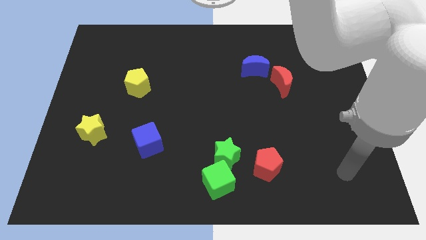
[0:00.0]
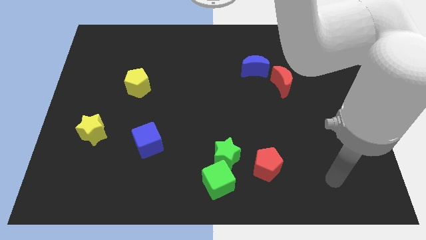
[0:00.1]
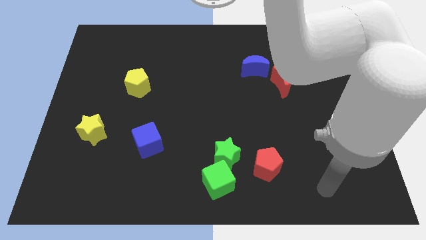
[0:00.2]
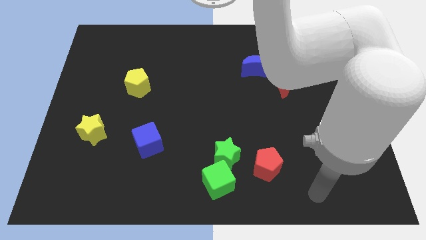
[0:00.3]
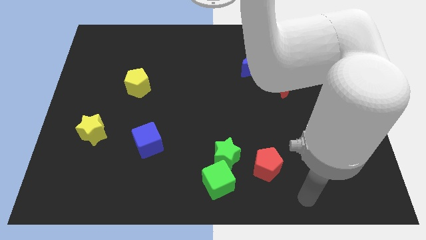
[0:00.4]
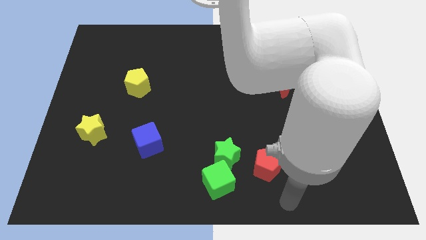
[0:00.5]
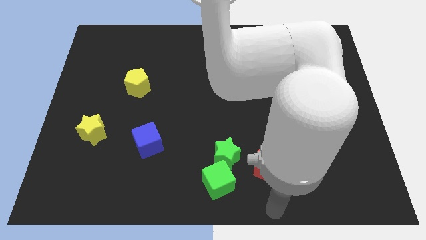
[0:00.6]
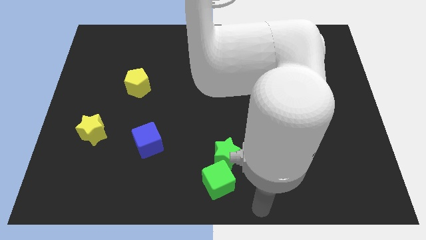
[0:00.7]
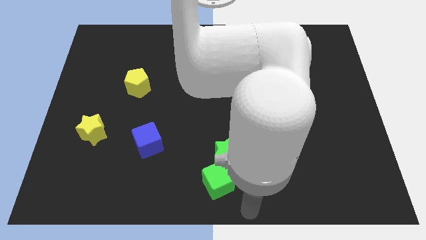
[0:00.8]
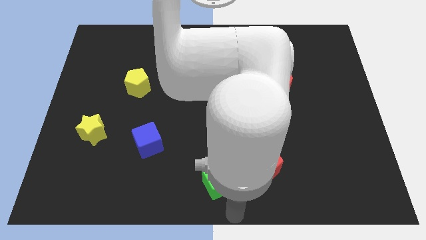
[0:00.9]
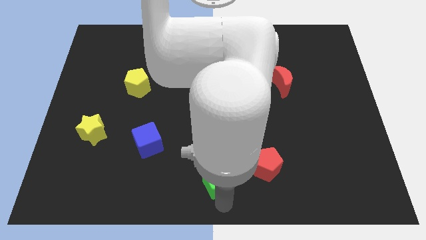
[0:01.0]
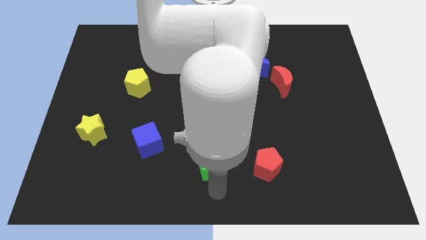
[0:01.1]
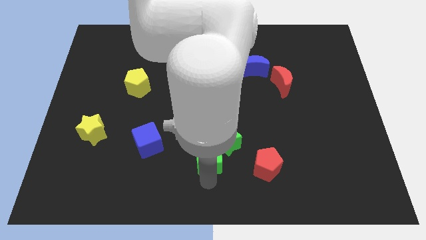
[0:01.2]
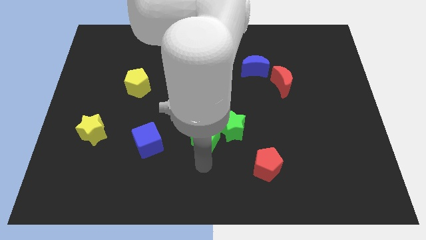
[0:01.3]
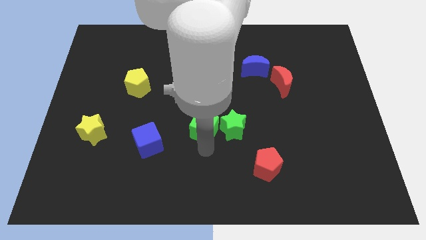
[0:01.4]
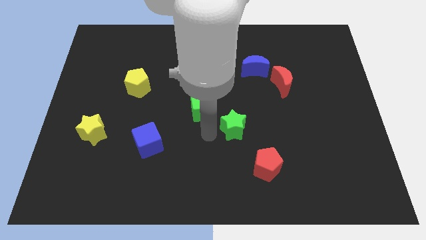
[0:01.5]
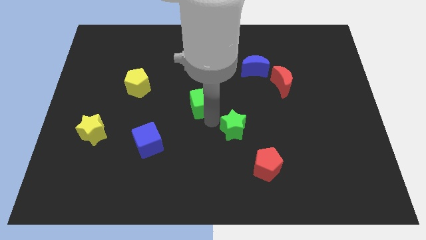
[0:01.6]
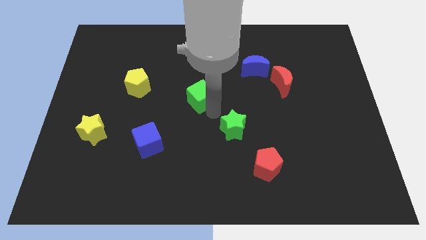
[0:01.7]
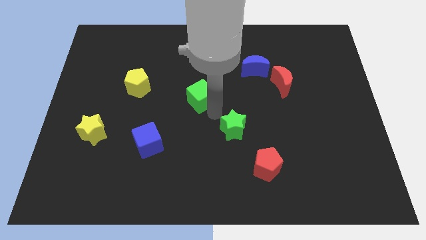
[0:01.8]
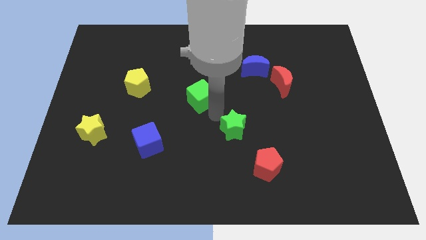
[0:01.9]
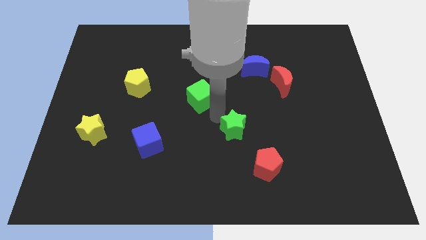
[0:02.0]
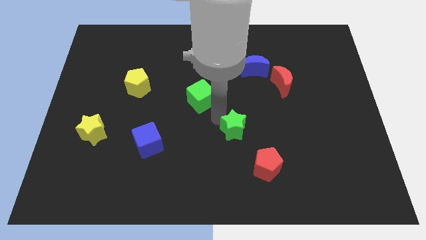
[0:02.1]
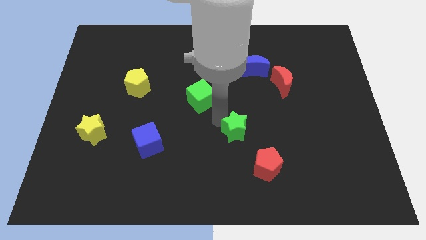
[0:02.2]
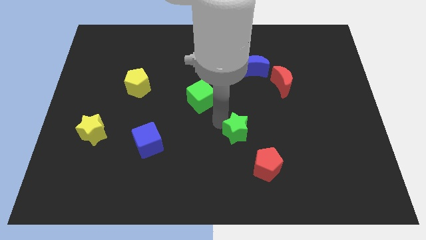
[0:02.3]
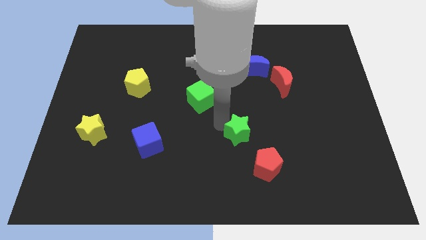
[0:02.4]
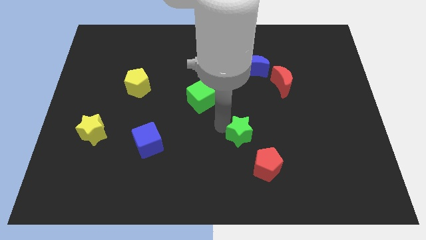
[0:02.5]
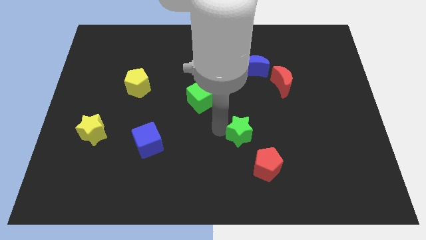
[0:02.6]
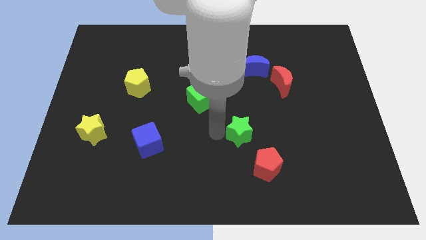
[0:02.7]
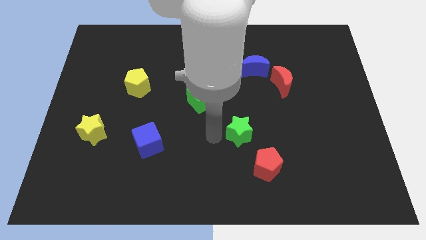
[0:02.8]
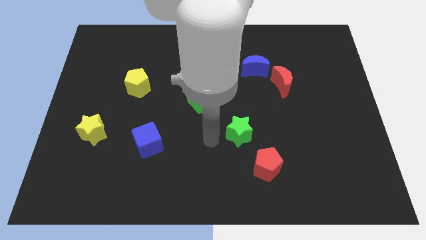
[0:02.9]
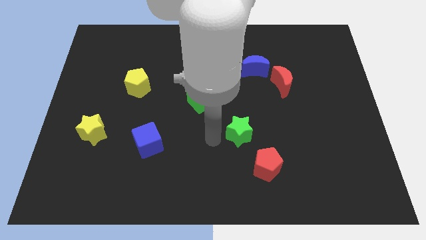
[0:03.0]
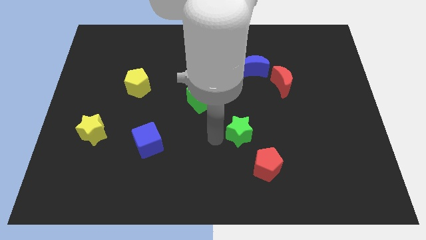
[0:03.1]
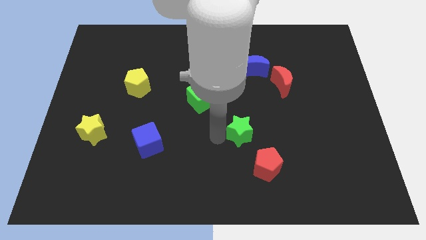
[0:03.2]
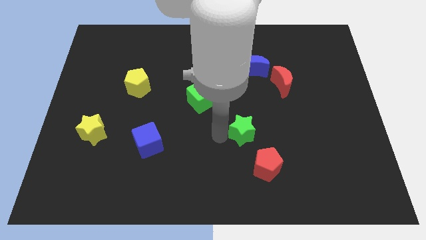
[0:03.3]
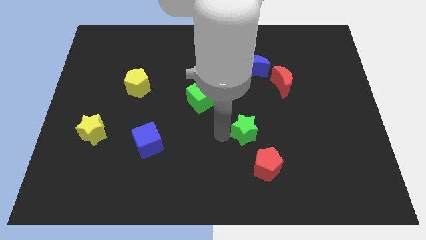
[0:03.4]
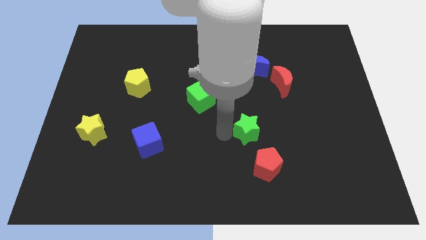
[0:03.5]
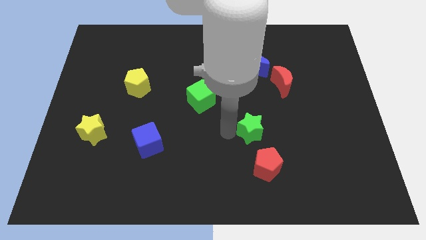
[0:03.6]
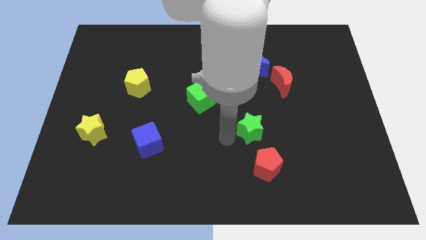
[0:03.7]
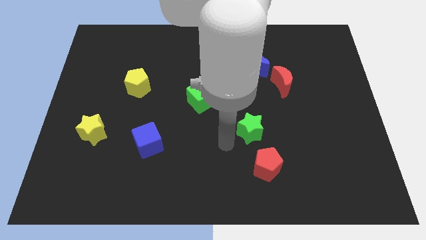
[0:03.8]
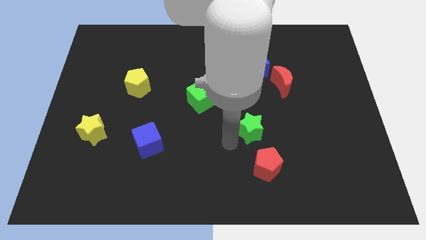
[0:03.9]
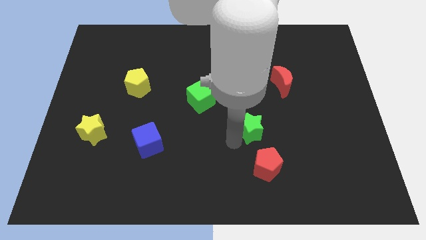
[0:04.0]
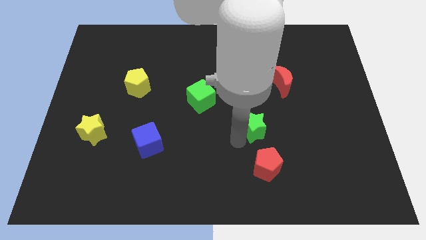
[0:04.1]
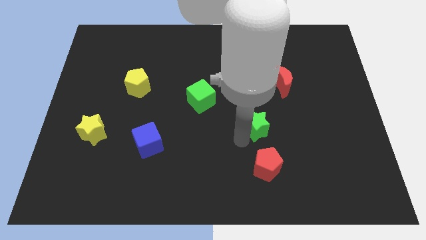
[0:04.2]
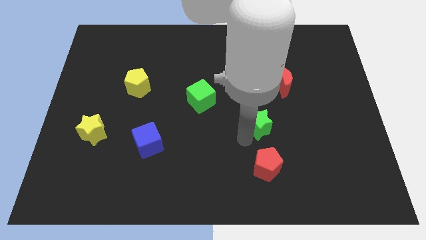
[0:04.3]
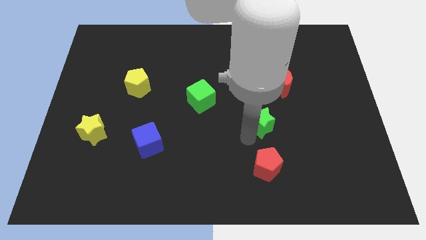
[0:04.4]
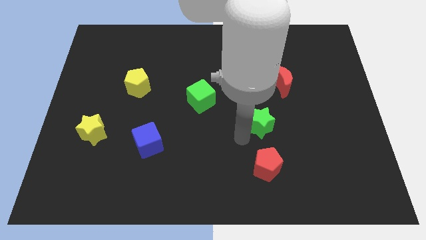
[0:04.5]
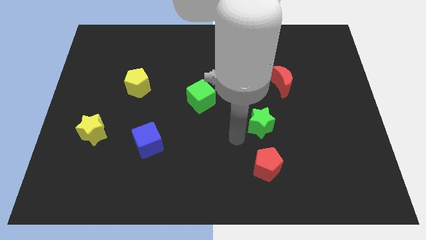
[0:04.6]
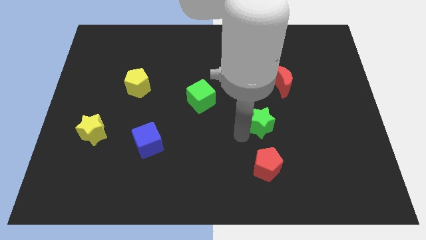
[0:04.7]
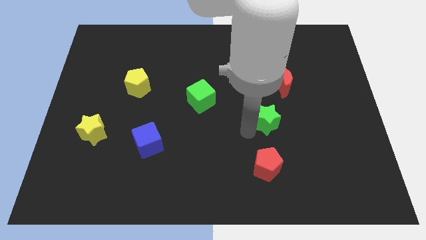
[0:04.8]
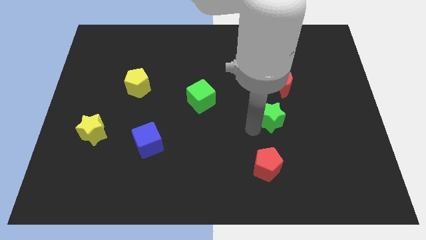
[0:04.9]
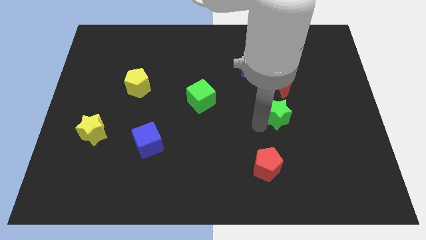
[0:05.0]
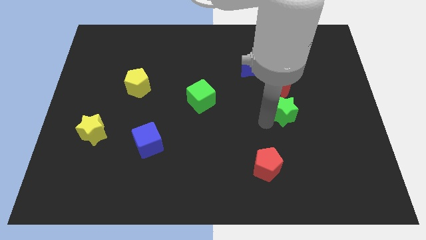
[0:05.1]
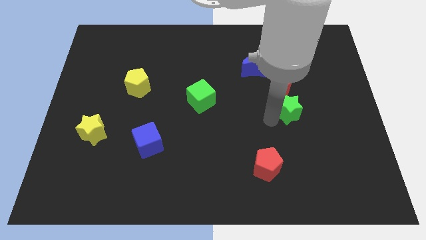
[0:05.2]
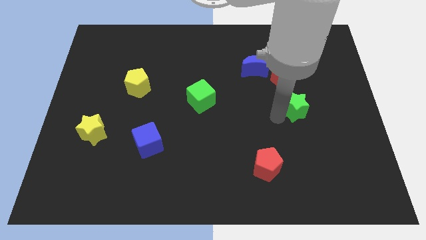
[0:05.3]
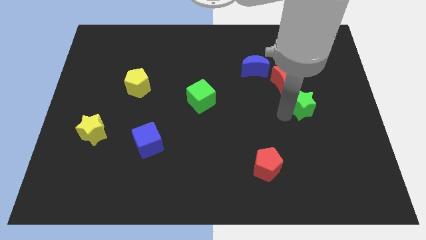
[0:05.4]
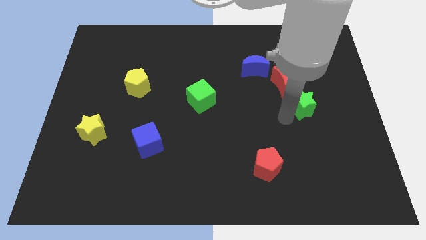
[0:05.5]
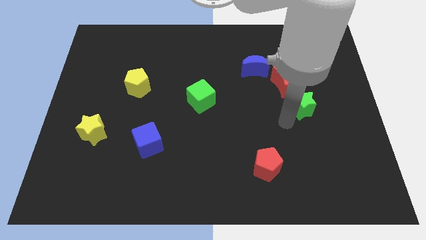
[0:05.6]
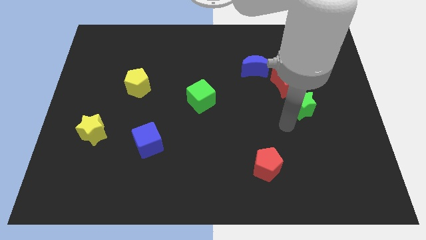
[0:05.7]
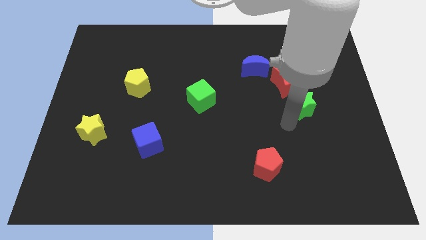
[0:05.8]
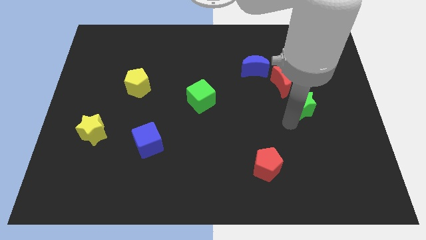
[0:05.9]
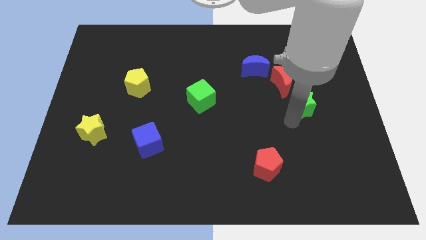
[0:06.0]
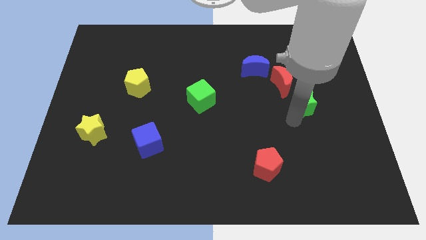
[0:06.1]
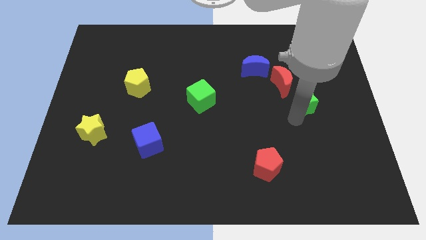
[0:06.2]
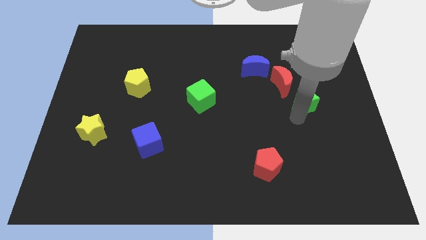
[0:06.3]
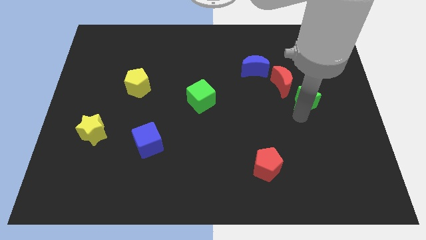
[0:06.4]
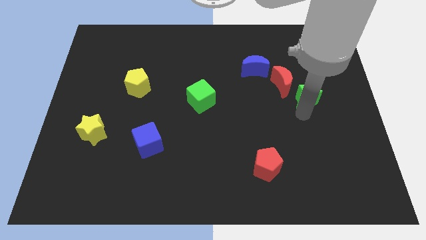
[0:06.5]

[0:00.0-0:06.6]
slide the green star to the right side of the red moon
